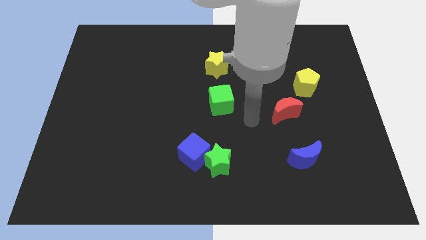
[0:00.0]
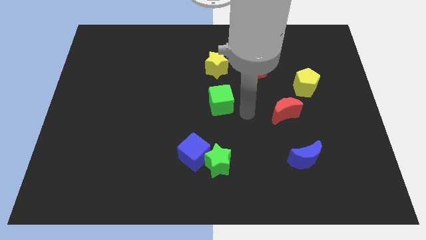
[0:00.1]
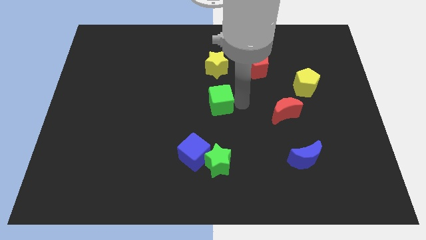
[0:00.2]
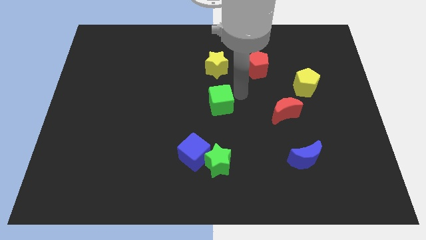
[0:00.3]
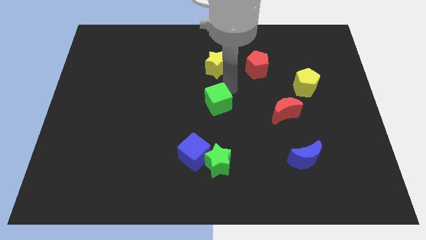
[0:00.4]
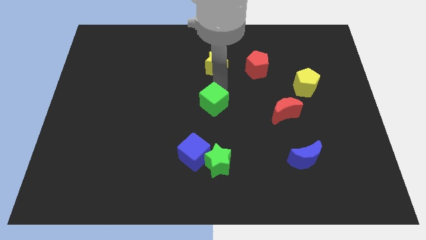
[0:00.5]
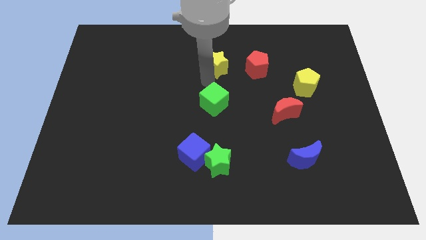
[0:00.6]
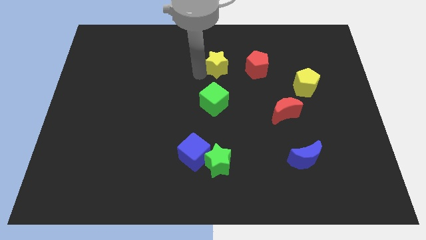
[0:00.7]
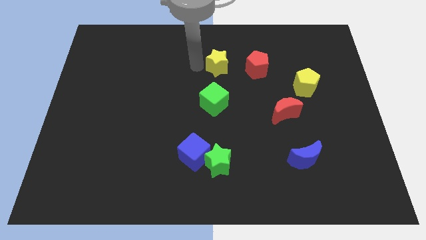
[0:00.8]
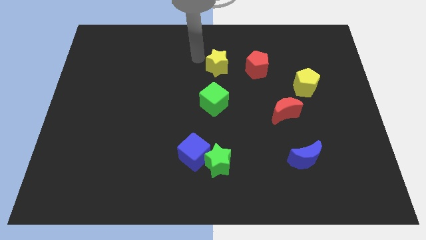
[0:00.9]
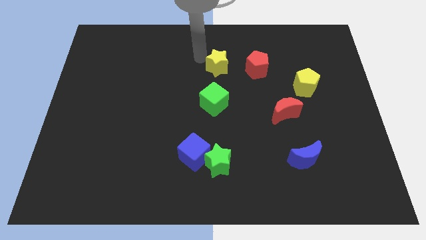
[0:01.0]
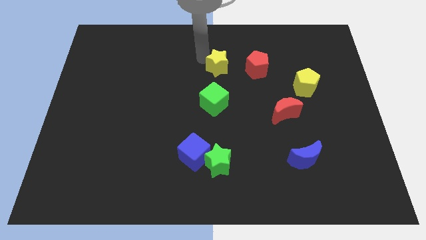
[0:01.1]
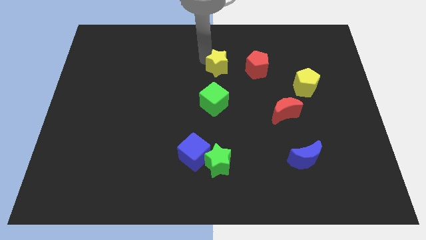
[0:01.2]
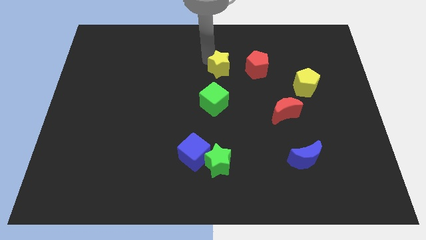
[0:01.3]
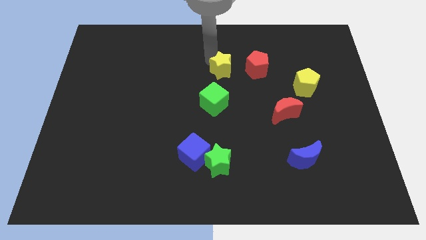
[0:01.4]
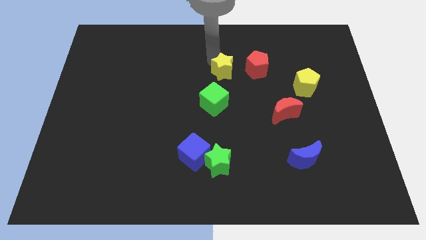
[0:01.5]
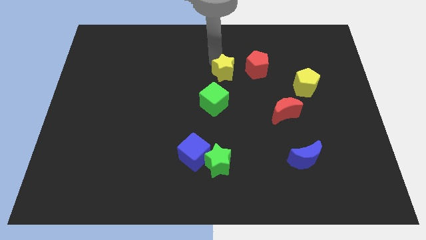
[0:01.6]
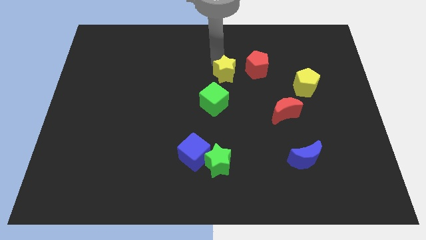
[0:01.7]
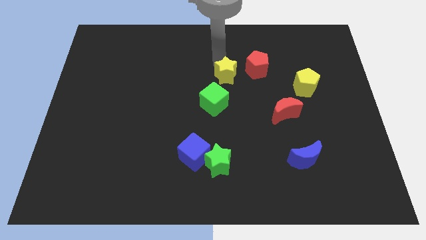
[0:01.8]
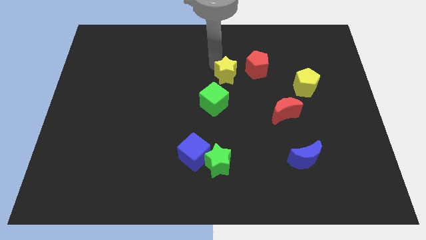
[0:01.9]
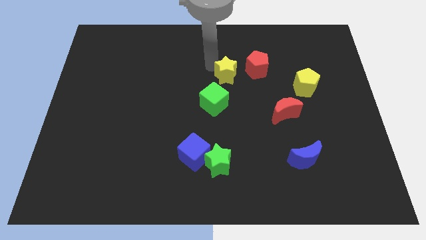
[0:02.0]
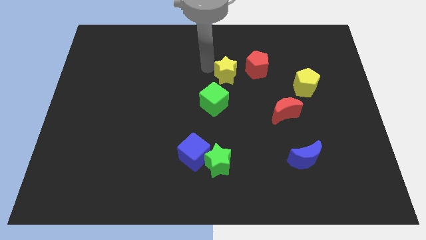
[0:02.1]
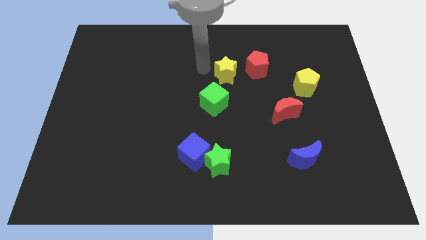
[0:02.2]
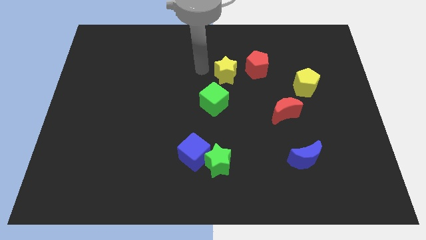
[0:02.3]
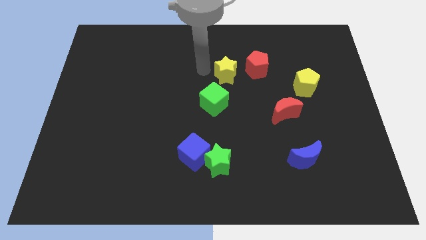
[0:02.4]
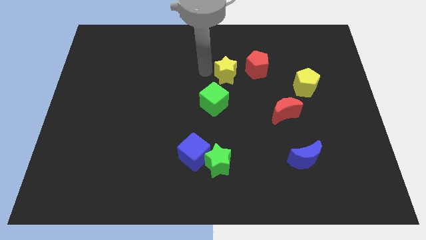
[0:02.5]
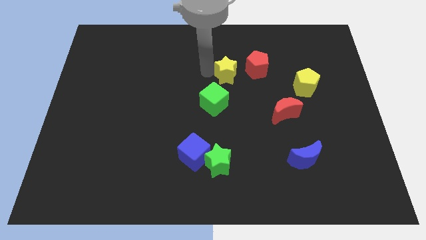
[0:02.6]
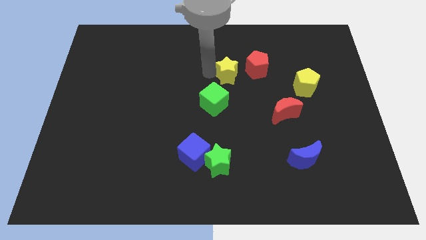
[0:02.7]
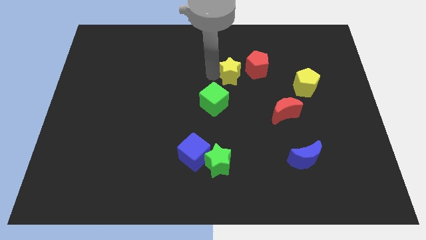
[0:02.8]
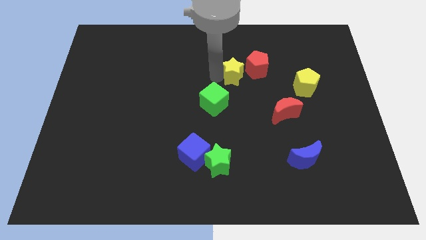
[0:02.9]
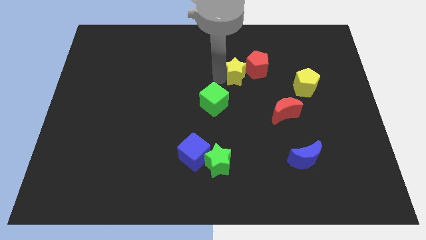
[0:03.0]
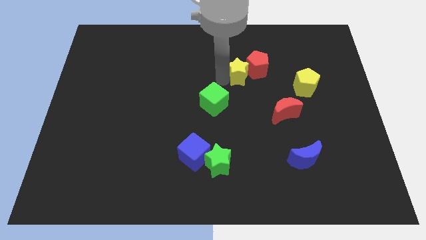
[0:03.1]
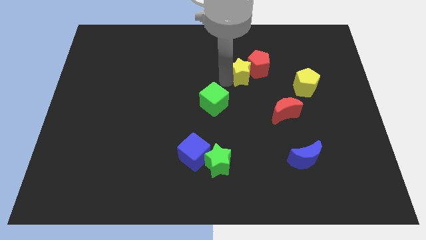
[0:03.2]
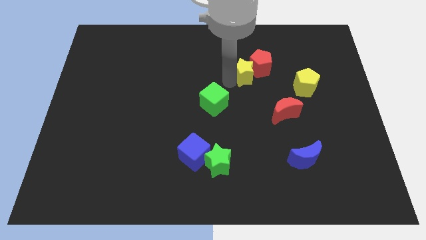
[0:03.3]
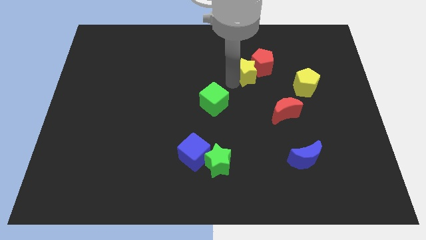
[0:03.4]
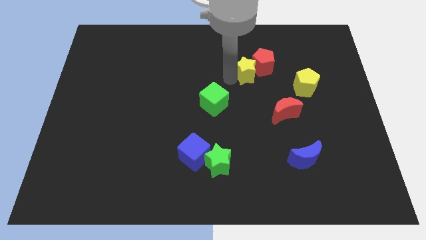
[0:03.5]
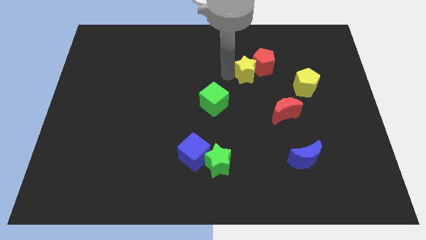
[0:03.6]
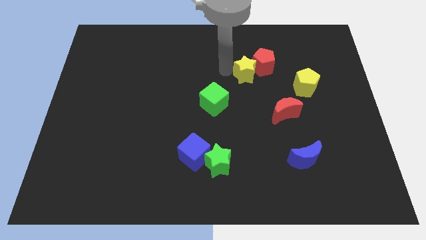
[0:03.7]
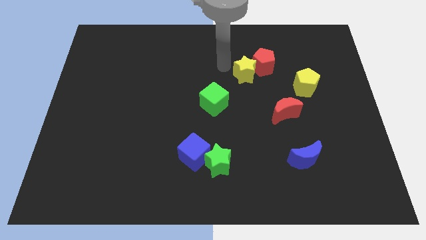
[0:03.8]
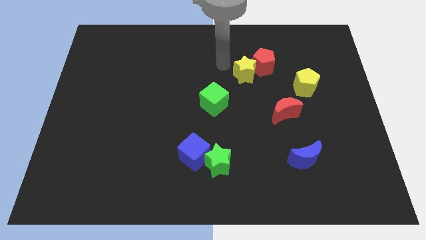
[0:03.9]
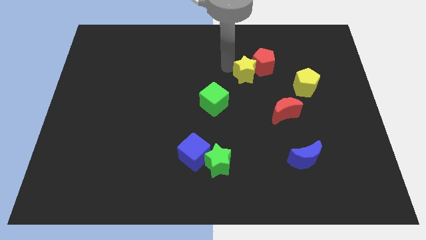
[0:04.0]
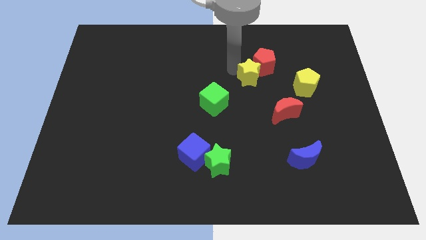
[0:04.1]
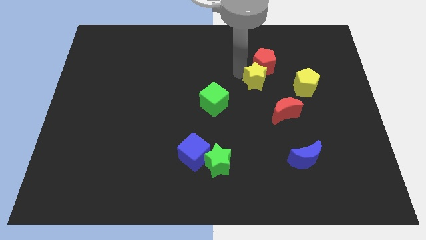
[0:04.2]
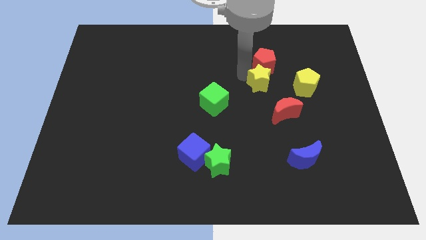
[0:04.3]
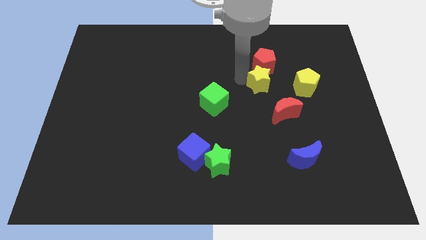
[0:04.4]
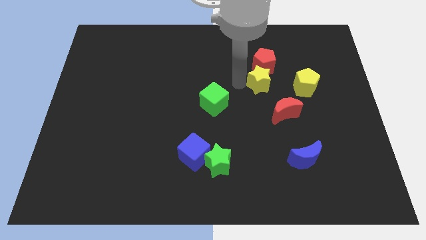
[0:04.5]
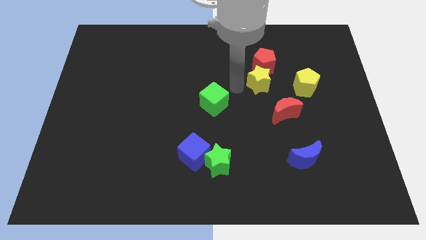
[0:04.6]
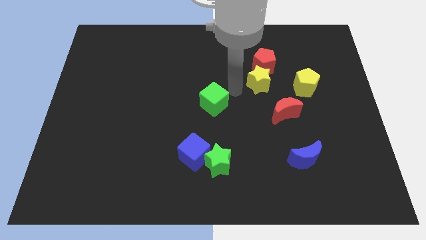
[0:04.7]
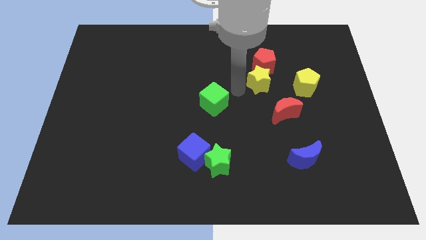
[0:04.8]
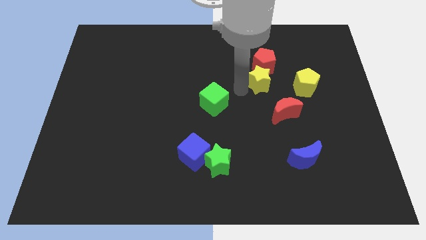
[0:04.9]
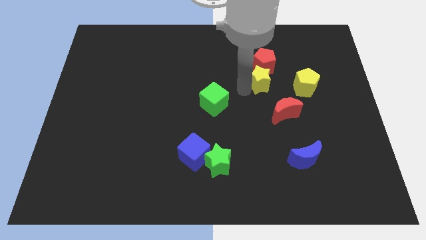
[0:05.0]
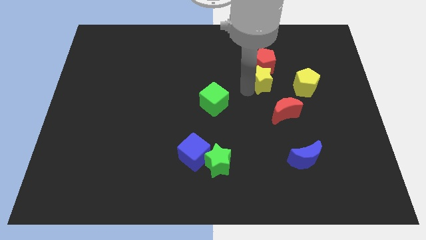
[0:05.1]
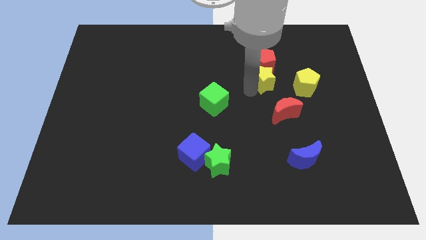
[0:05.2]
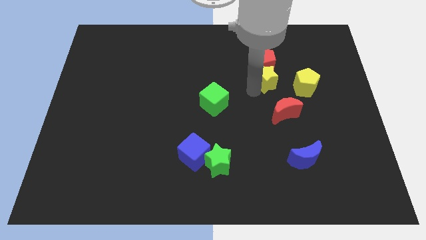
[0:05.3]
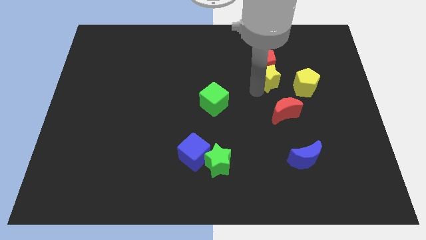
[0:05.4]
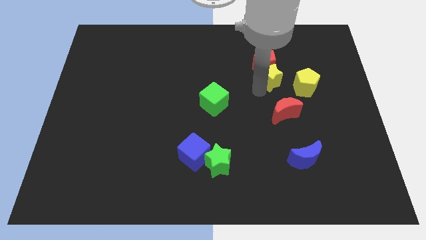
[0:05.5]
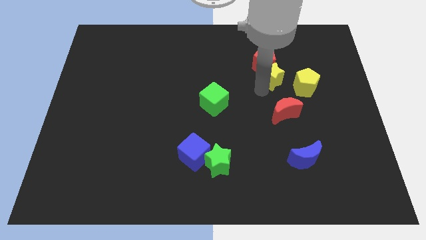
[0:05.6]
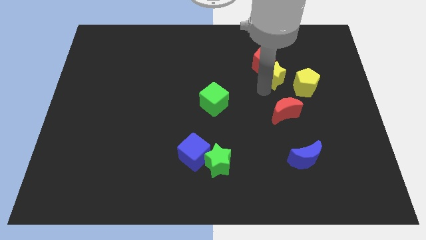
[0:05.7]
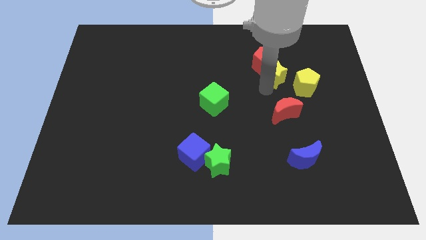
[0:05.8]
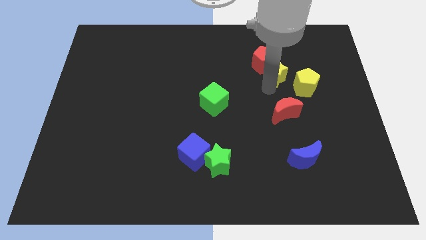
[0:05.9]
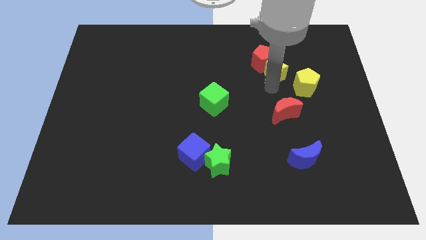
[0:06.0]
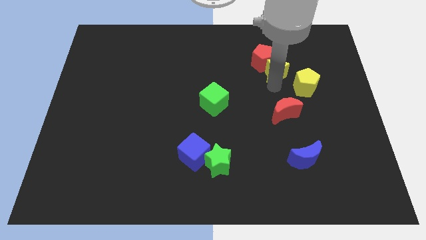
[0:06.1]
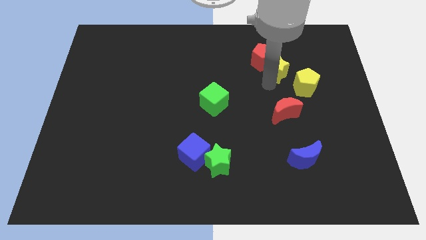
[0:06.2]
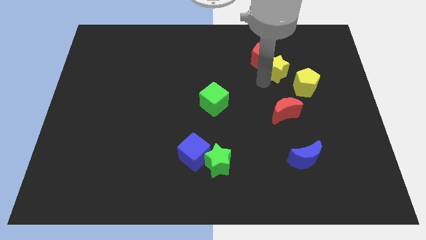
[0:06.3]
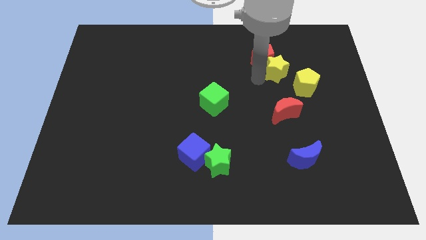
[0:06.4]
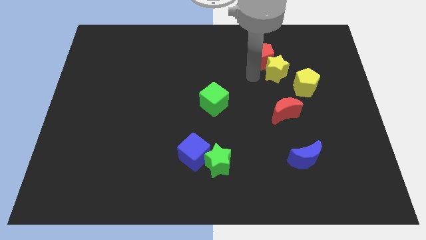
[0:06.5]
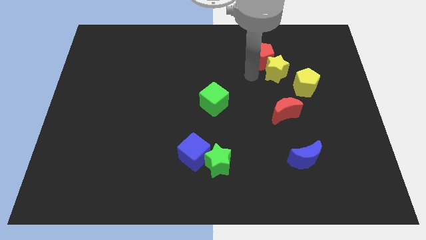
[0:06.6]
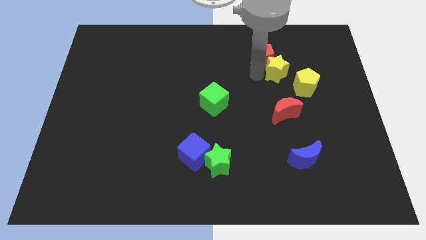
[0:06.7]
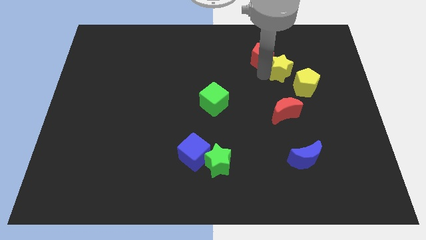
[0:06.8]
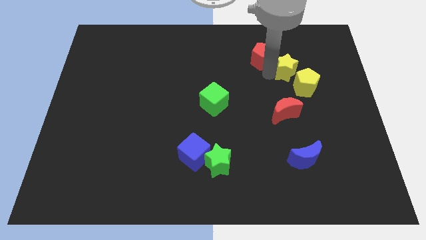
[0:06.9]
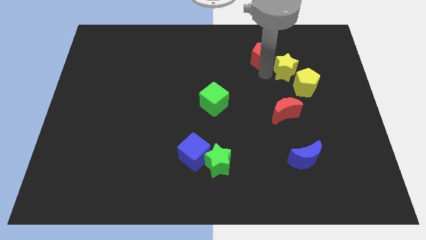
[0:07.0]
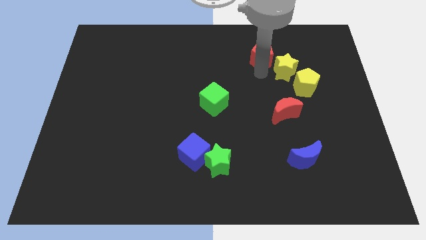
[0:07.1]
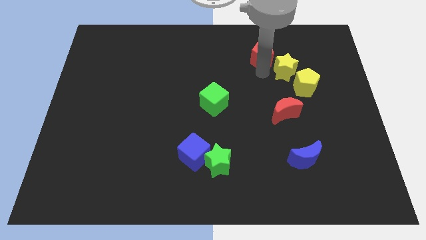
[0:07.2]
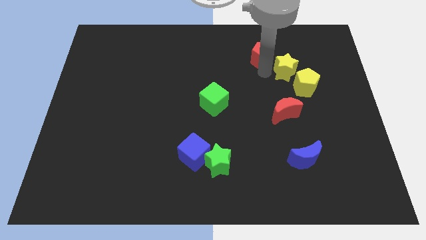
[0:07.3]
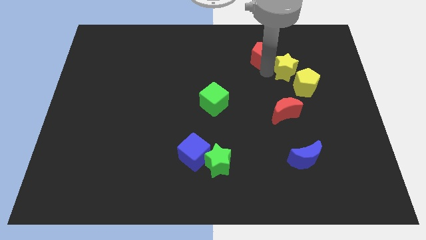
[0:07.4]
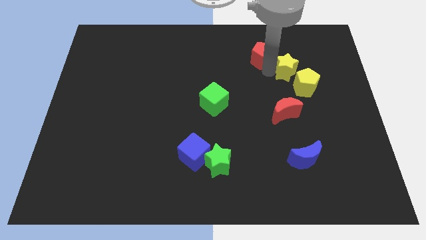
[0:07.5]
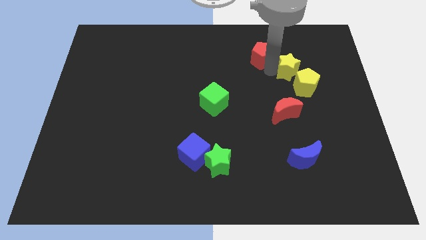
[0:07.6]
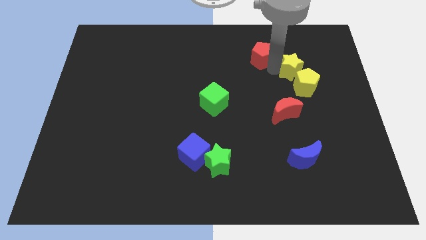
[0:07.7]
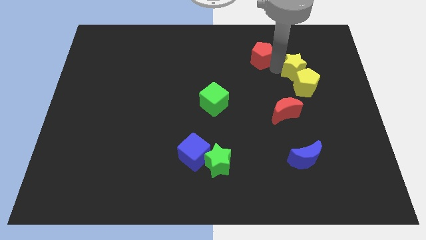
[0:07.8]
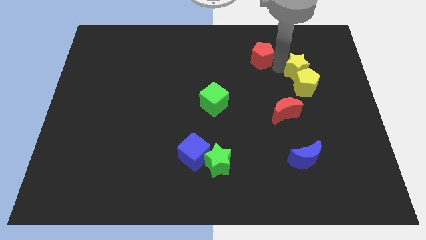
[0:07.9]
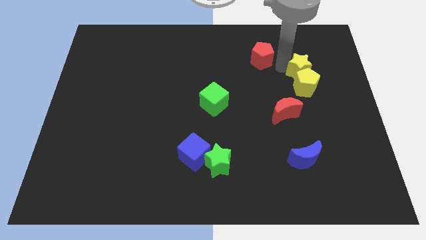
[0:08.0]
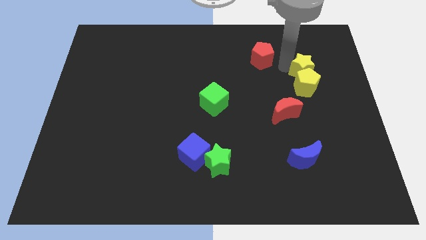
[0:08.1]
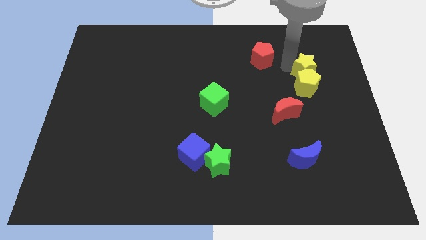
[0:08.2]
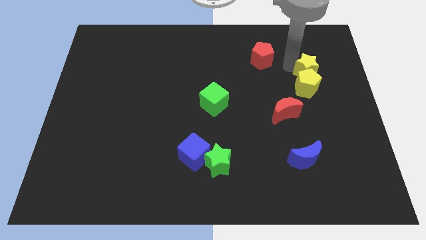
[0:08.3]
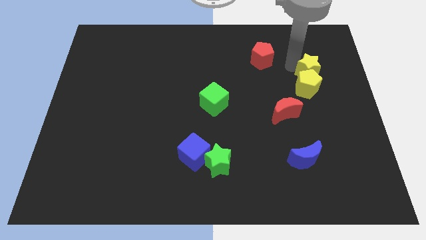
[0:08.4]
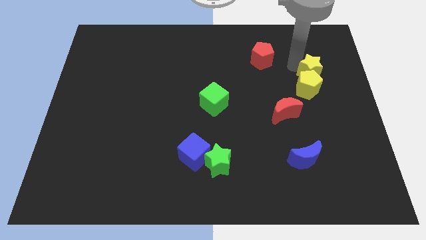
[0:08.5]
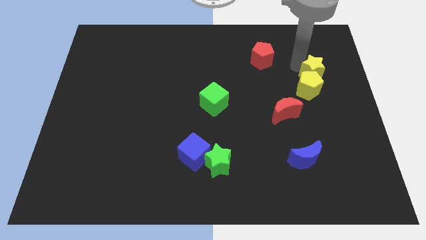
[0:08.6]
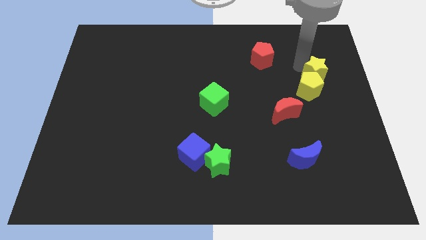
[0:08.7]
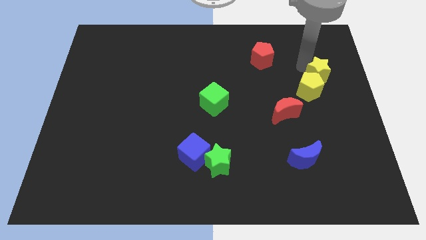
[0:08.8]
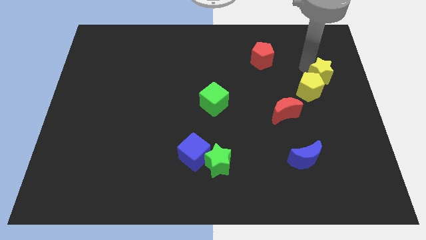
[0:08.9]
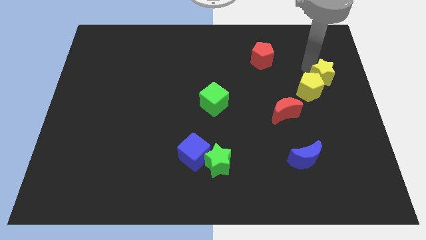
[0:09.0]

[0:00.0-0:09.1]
move the yellow star to the center right
